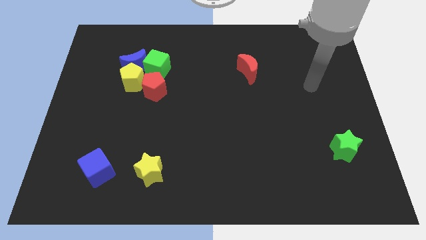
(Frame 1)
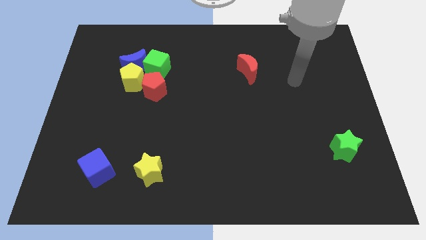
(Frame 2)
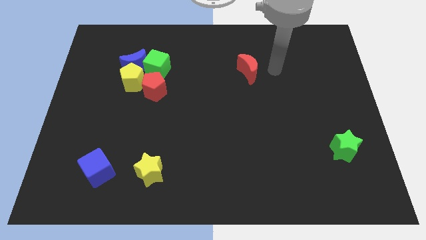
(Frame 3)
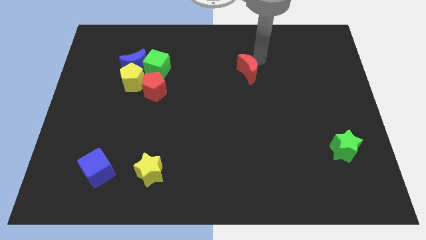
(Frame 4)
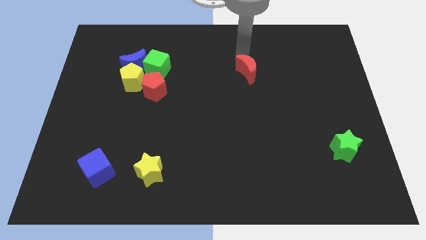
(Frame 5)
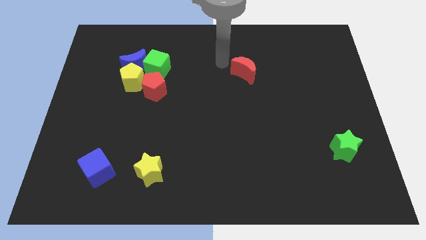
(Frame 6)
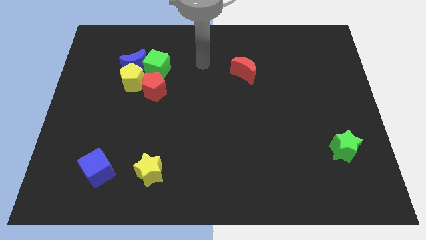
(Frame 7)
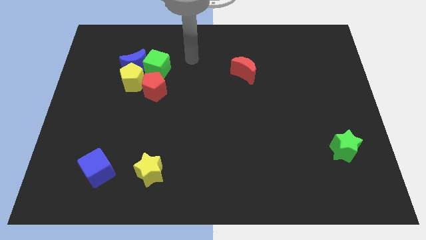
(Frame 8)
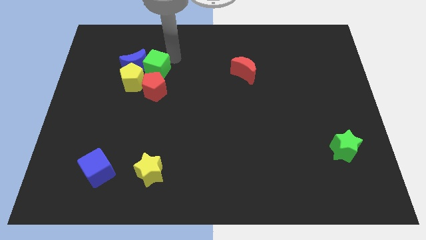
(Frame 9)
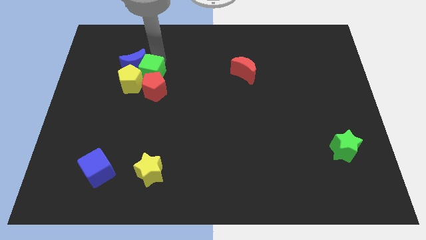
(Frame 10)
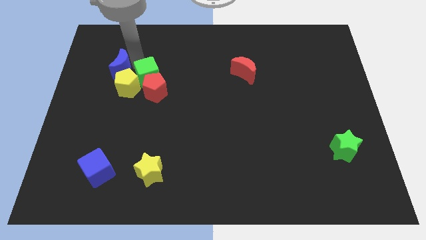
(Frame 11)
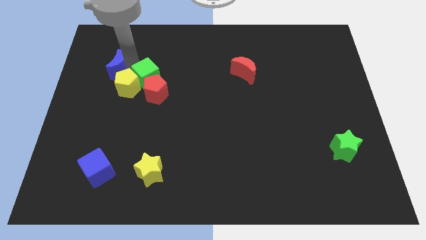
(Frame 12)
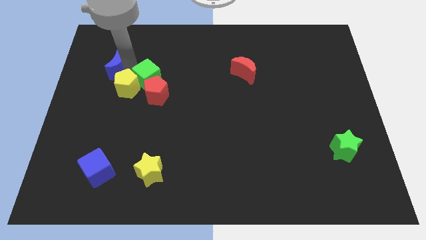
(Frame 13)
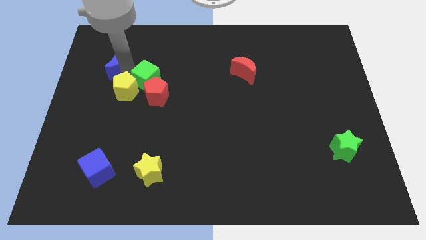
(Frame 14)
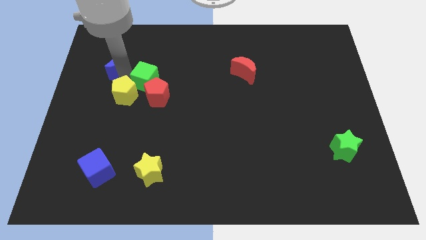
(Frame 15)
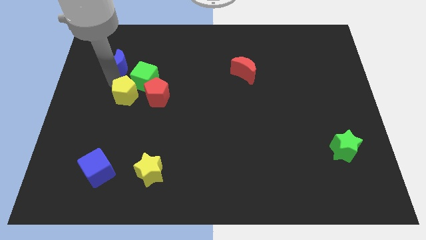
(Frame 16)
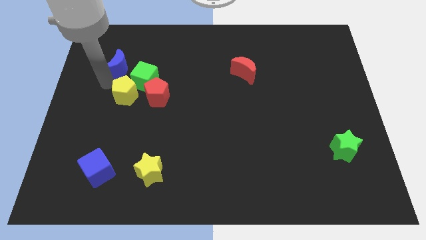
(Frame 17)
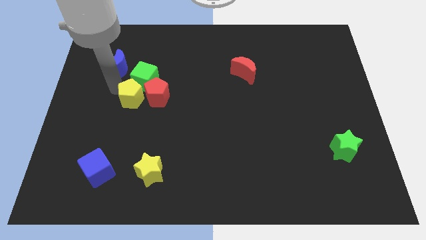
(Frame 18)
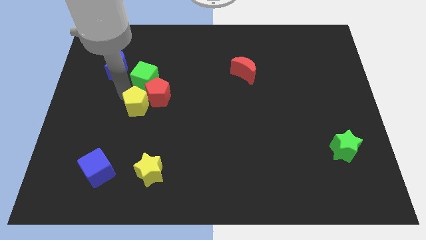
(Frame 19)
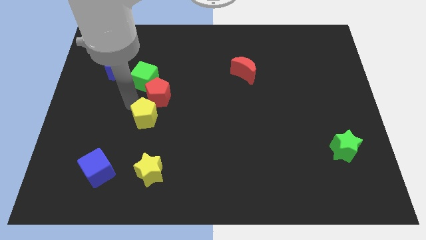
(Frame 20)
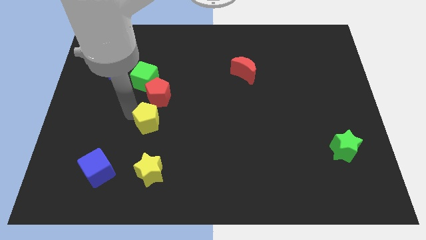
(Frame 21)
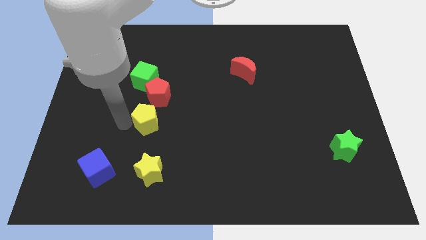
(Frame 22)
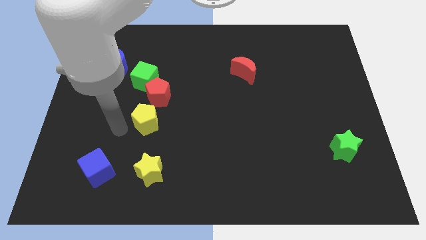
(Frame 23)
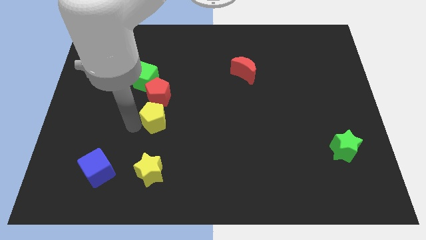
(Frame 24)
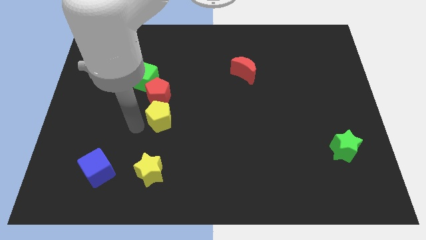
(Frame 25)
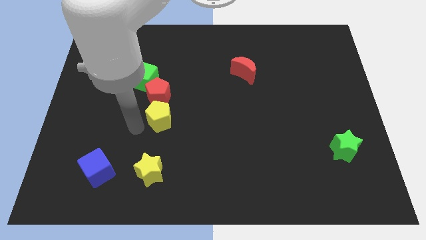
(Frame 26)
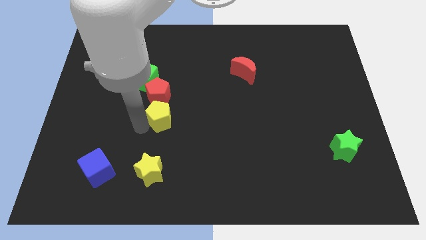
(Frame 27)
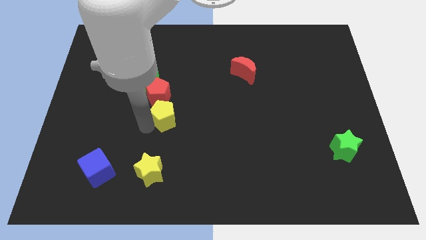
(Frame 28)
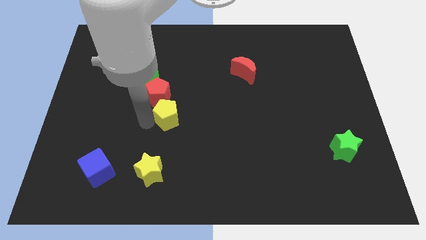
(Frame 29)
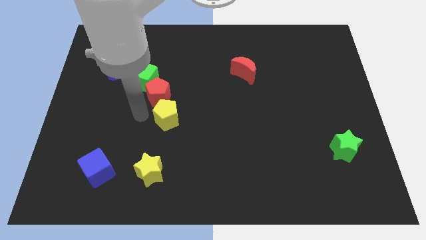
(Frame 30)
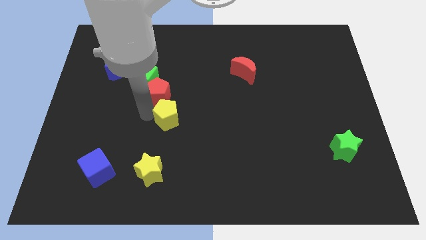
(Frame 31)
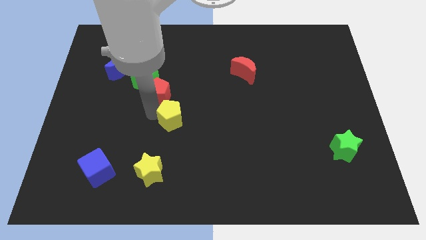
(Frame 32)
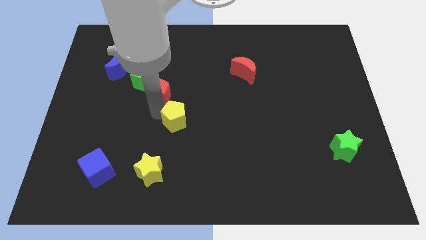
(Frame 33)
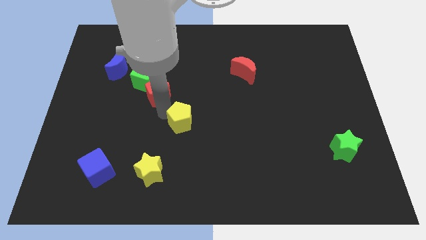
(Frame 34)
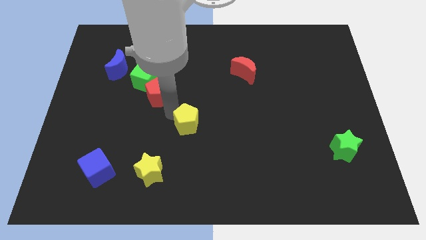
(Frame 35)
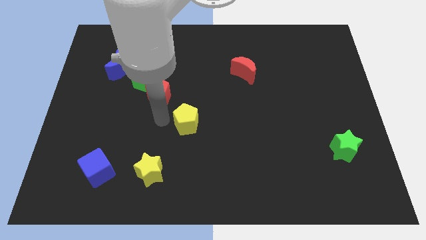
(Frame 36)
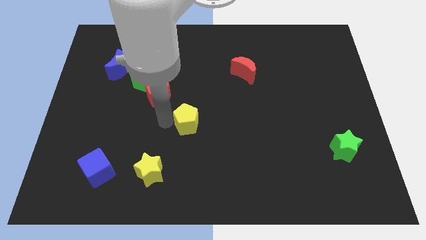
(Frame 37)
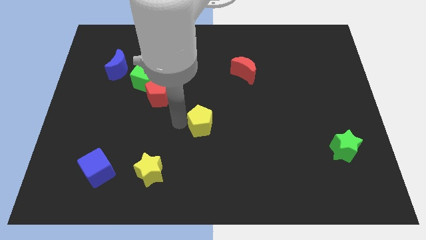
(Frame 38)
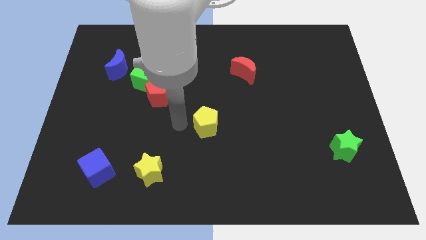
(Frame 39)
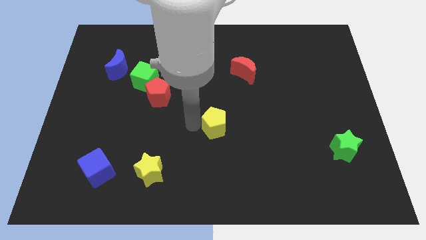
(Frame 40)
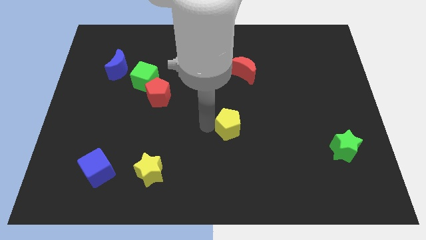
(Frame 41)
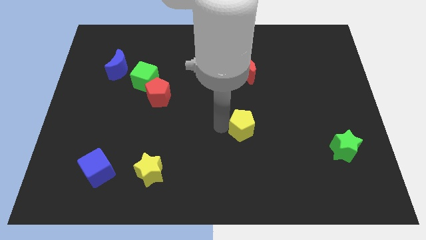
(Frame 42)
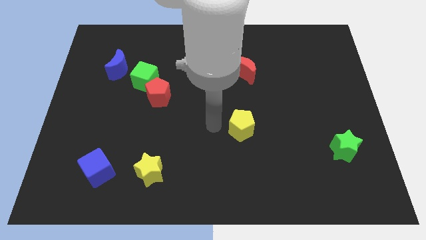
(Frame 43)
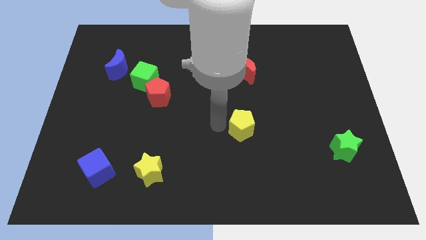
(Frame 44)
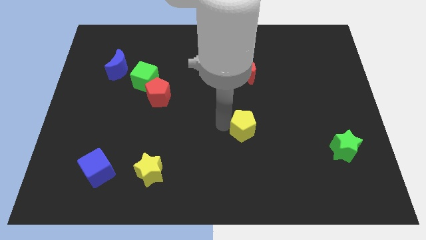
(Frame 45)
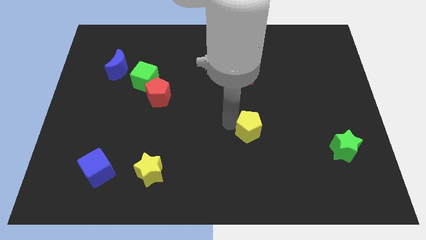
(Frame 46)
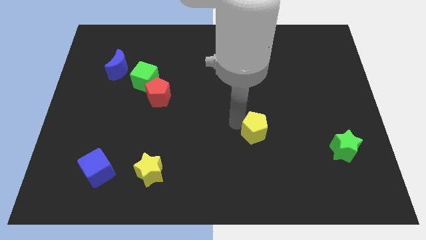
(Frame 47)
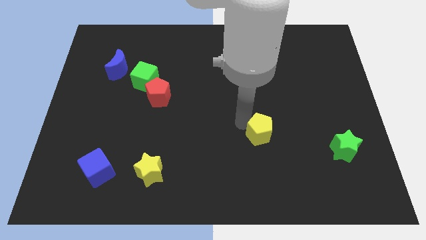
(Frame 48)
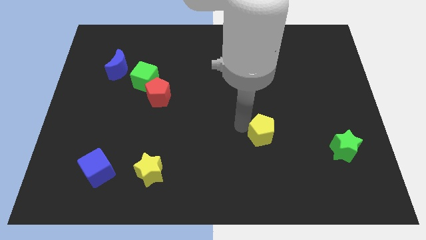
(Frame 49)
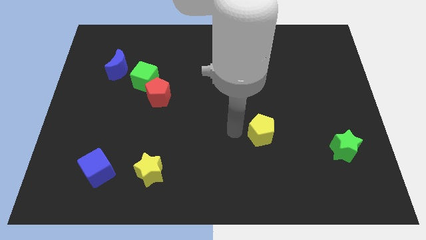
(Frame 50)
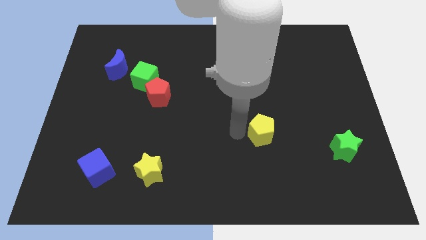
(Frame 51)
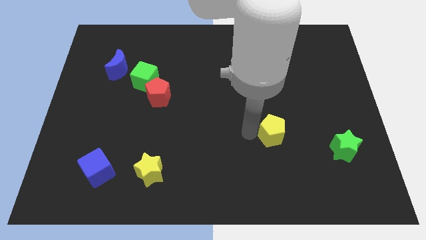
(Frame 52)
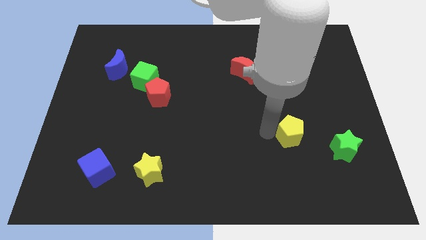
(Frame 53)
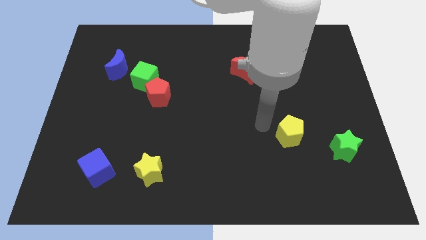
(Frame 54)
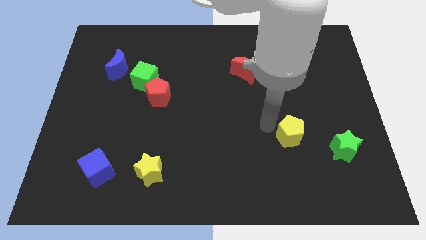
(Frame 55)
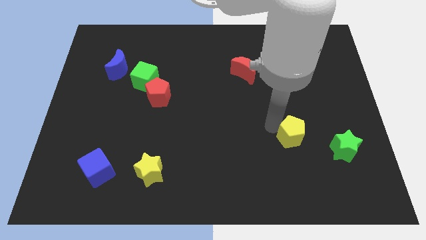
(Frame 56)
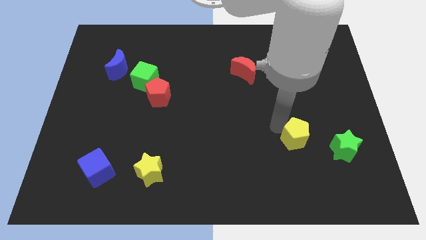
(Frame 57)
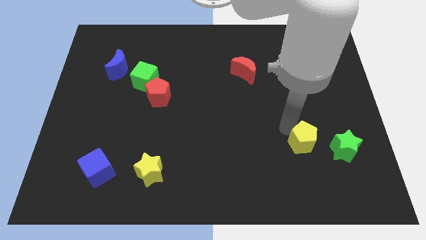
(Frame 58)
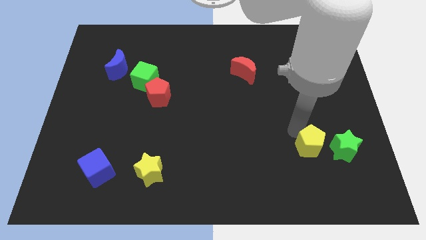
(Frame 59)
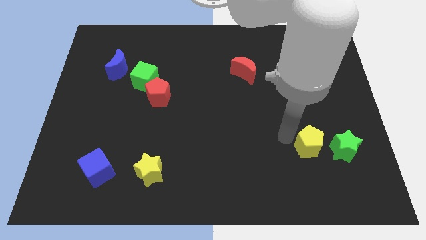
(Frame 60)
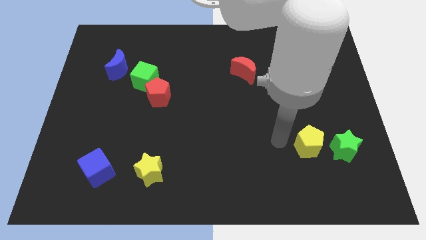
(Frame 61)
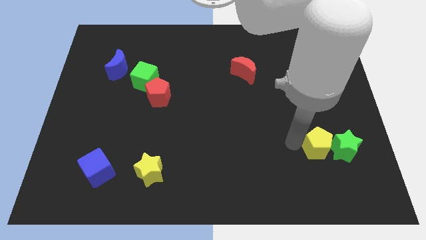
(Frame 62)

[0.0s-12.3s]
move the yellow pentagon next to the green star

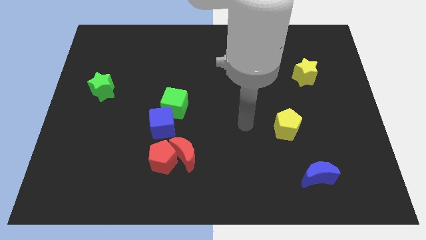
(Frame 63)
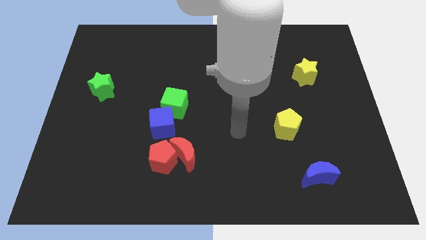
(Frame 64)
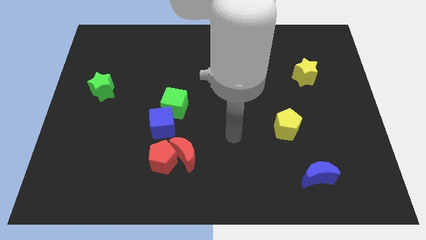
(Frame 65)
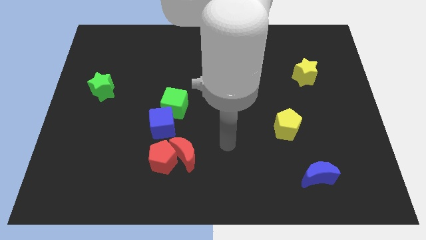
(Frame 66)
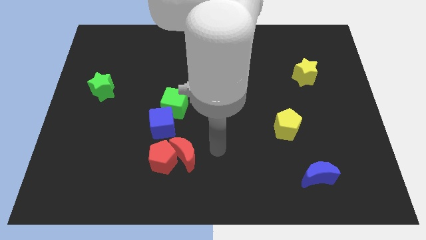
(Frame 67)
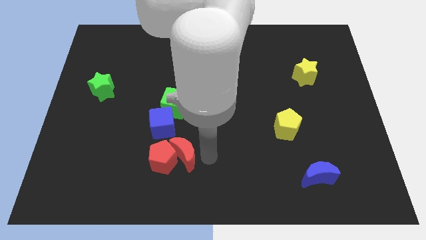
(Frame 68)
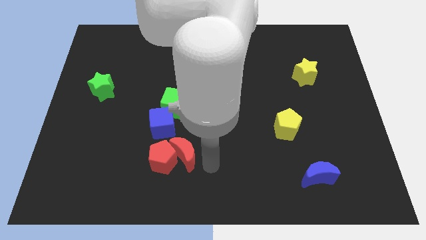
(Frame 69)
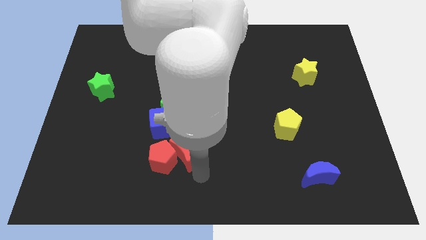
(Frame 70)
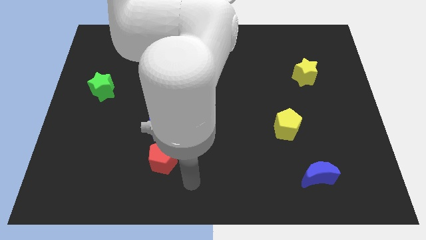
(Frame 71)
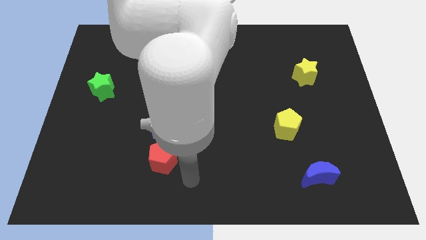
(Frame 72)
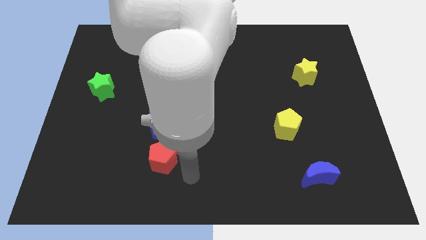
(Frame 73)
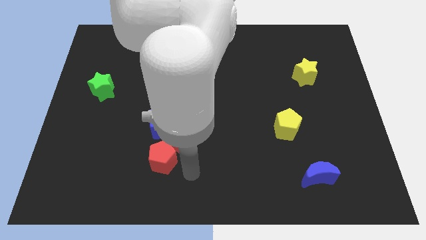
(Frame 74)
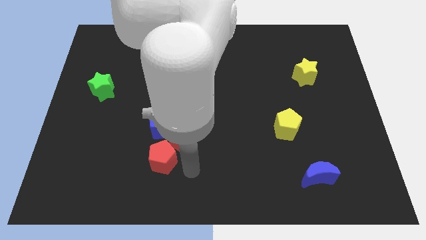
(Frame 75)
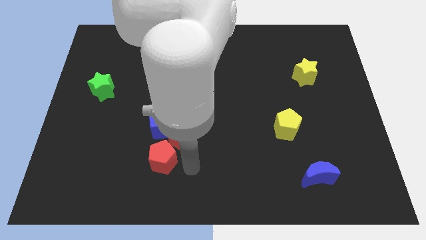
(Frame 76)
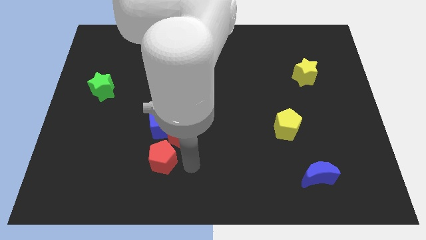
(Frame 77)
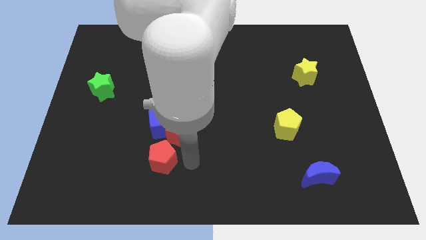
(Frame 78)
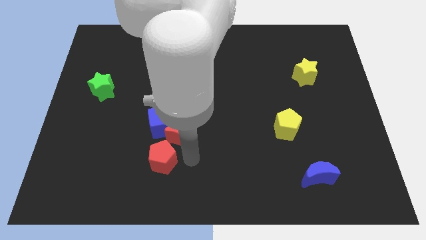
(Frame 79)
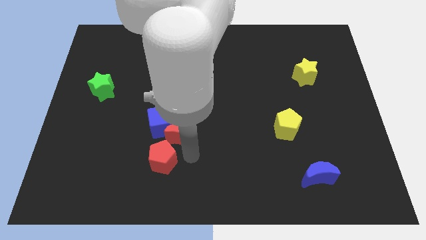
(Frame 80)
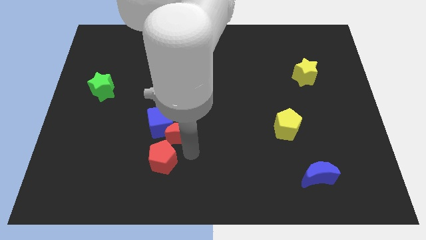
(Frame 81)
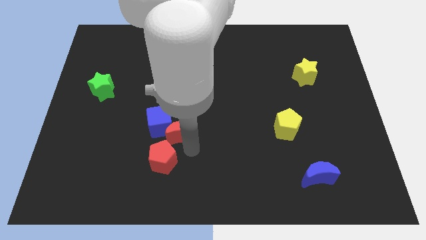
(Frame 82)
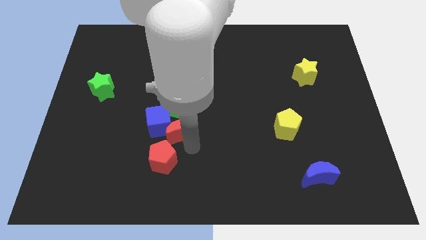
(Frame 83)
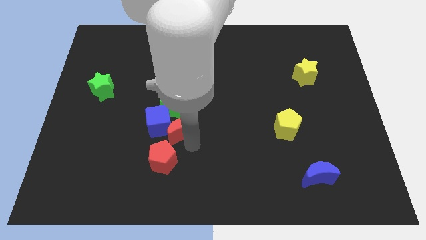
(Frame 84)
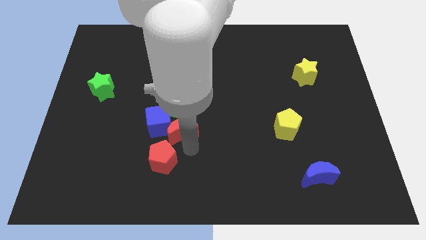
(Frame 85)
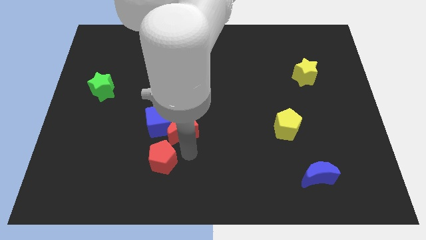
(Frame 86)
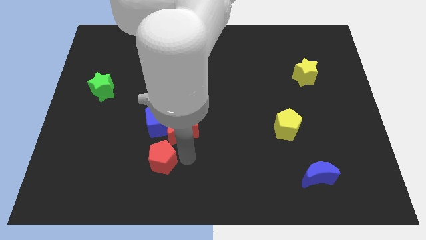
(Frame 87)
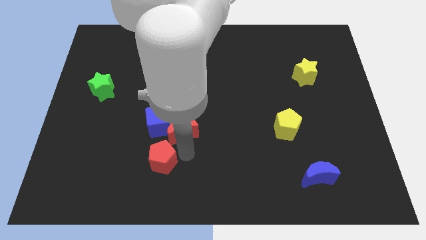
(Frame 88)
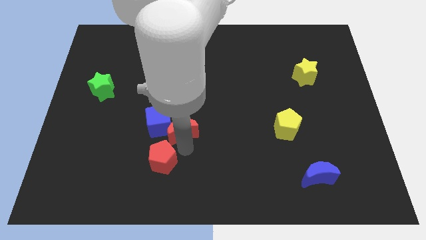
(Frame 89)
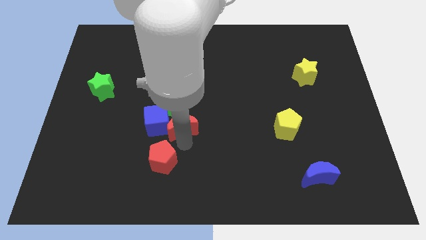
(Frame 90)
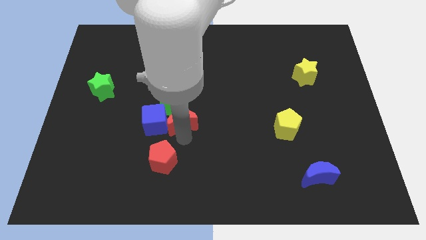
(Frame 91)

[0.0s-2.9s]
put the red moon towards the green cube
